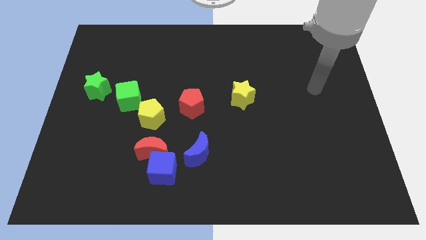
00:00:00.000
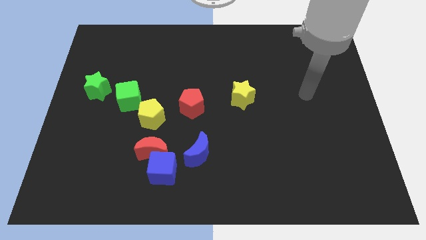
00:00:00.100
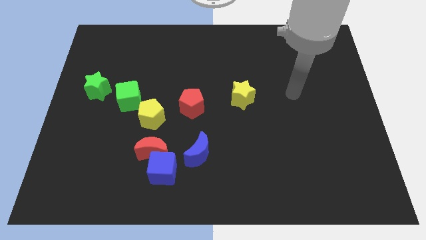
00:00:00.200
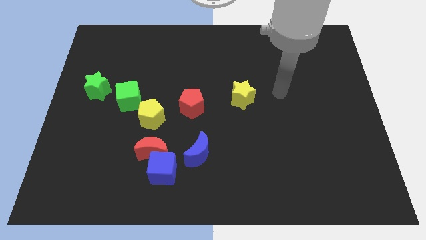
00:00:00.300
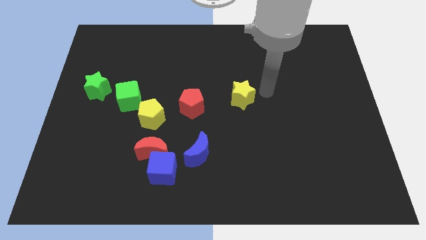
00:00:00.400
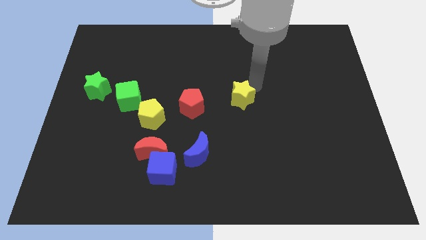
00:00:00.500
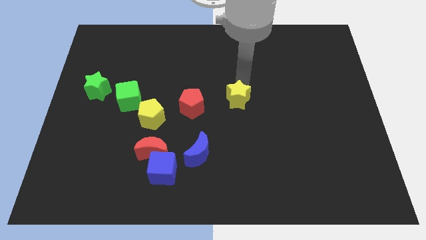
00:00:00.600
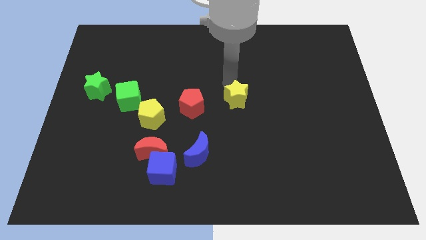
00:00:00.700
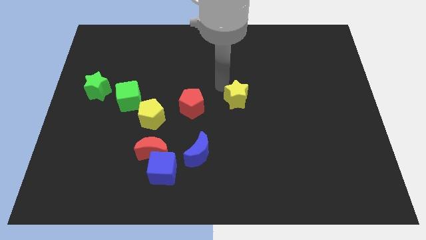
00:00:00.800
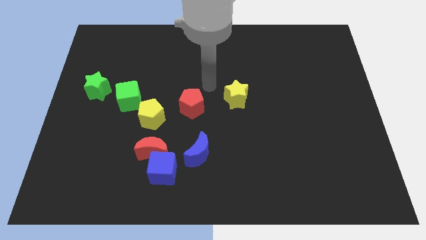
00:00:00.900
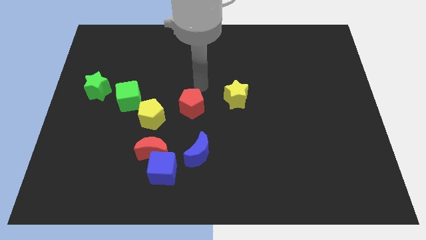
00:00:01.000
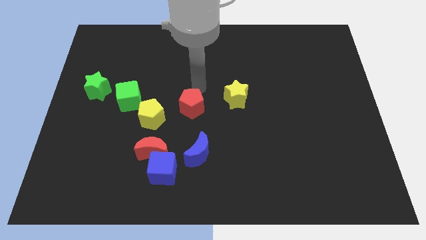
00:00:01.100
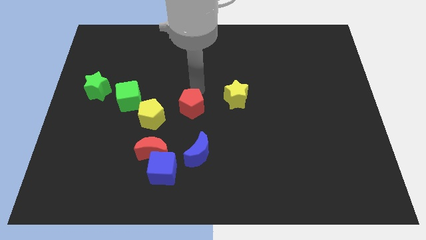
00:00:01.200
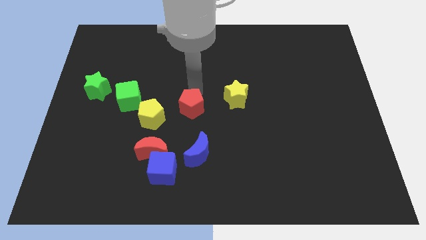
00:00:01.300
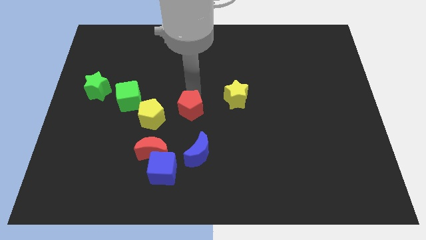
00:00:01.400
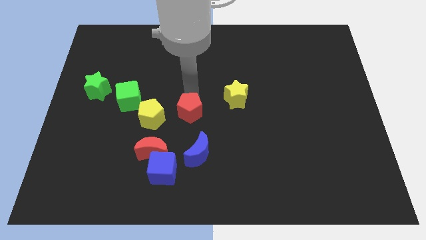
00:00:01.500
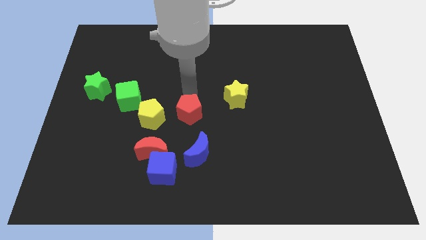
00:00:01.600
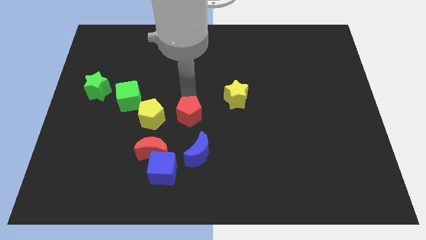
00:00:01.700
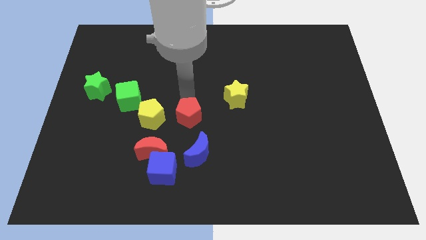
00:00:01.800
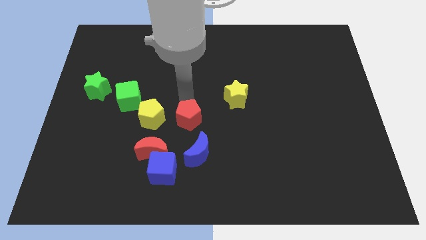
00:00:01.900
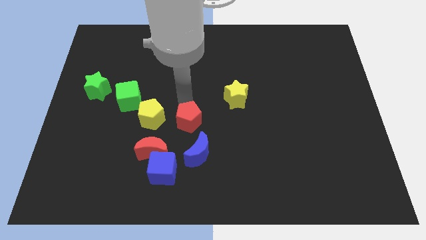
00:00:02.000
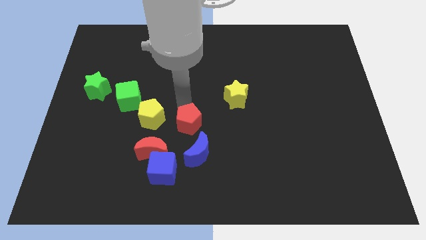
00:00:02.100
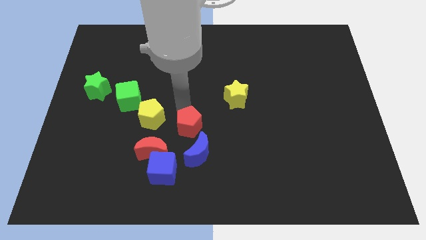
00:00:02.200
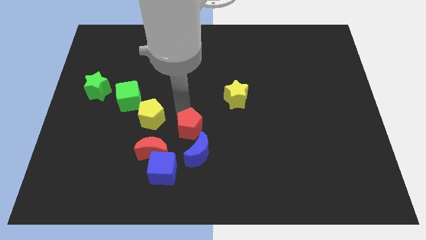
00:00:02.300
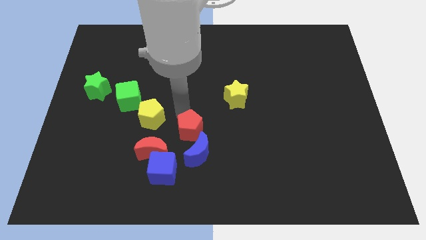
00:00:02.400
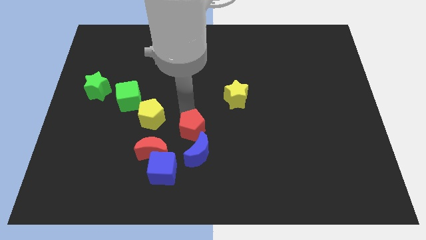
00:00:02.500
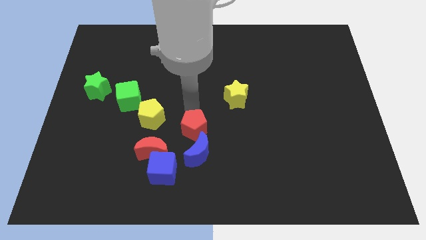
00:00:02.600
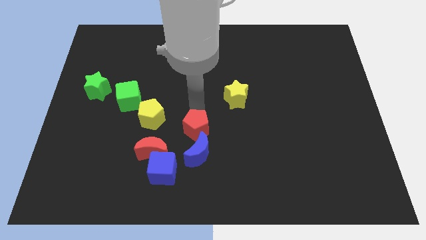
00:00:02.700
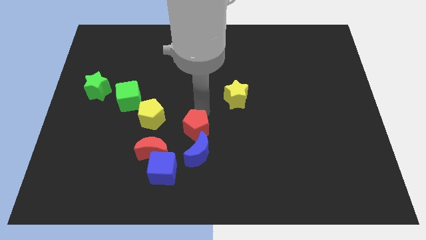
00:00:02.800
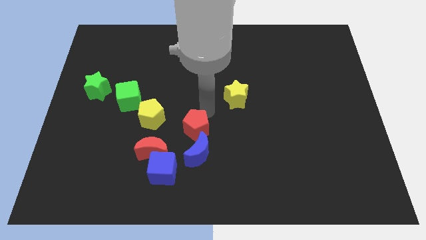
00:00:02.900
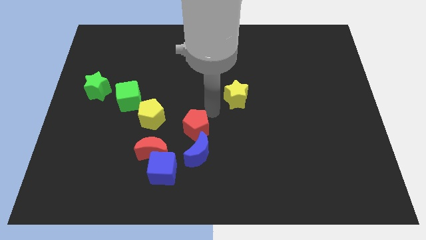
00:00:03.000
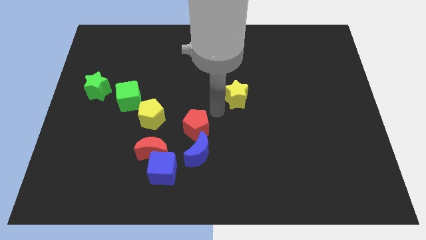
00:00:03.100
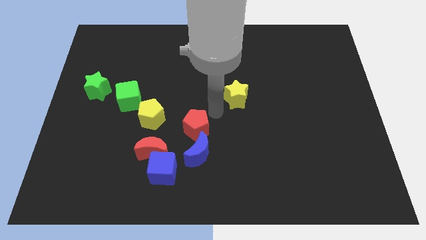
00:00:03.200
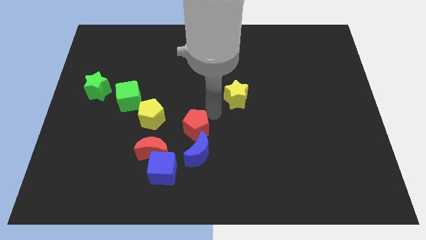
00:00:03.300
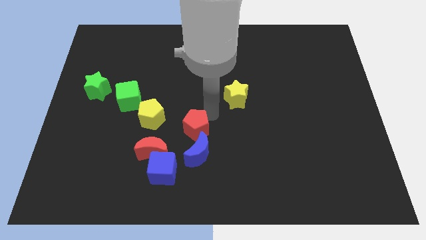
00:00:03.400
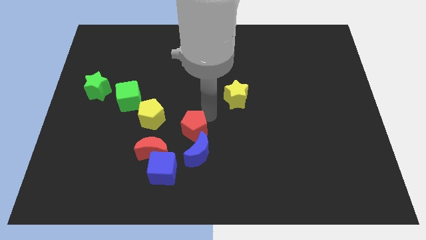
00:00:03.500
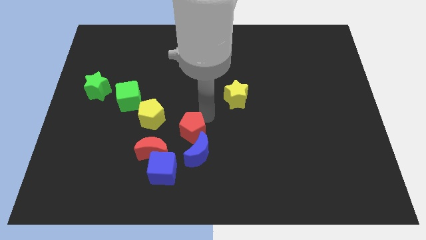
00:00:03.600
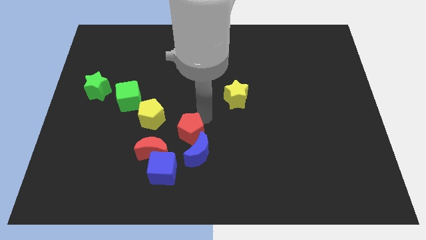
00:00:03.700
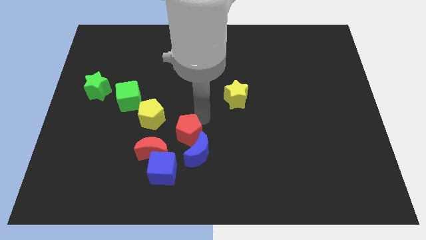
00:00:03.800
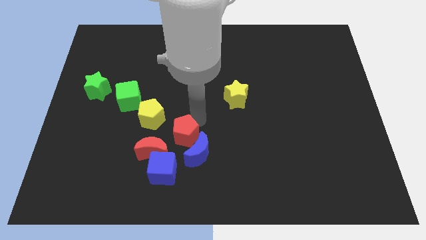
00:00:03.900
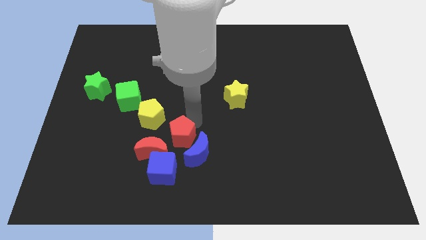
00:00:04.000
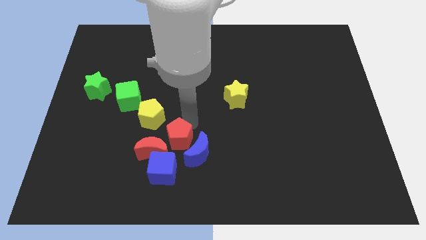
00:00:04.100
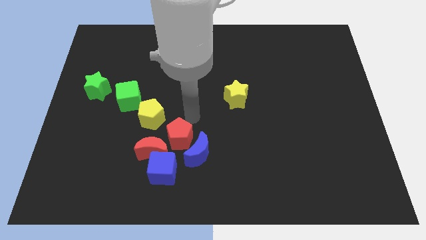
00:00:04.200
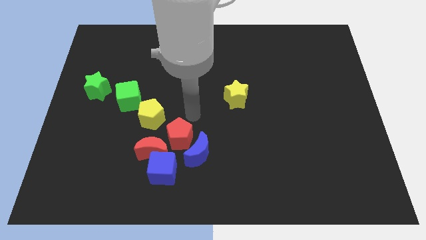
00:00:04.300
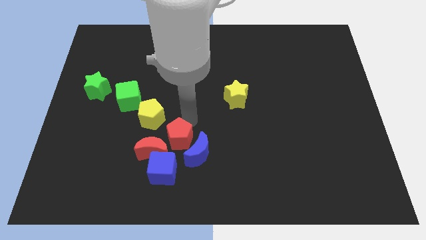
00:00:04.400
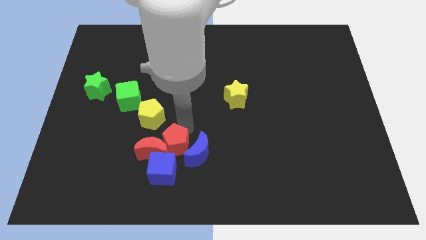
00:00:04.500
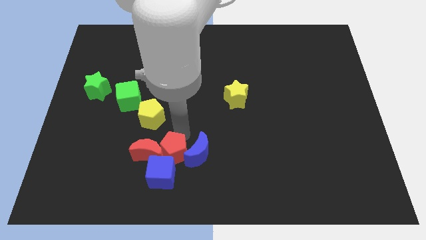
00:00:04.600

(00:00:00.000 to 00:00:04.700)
slide the red pentagon towards the blue cube

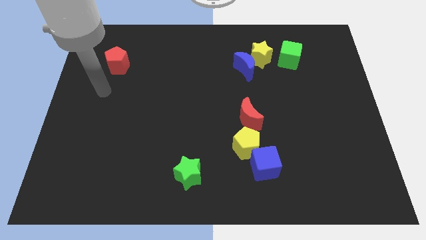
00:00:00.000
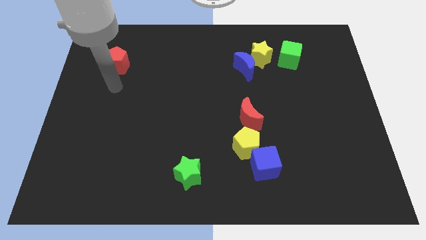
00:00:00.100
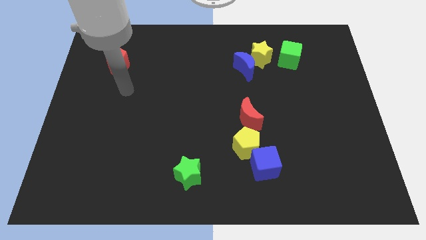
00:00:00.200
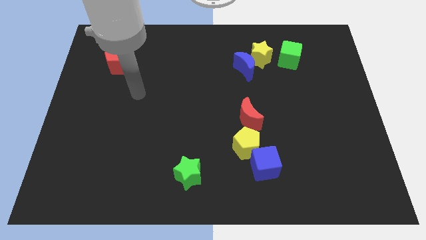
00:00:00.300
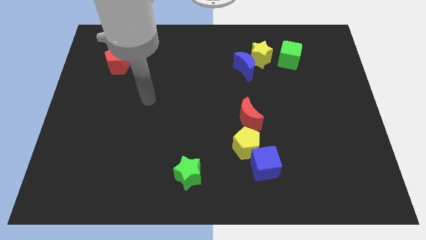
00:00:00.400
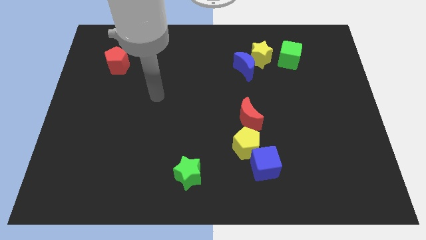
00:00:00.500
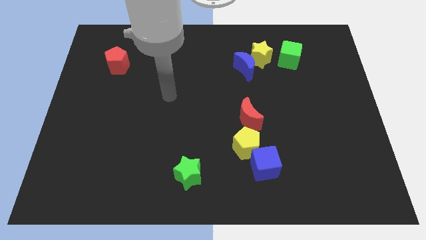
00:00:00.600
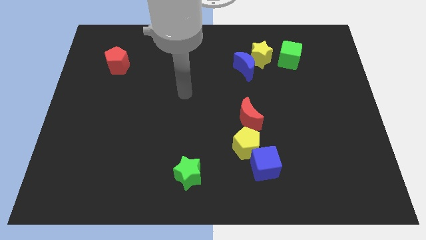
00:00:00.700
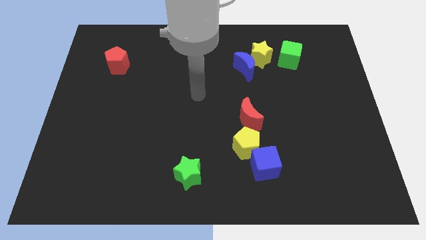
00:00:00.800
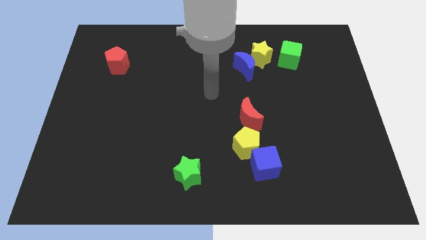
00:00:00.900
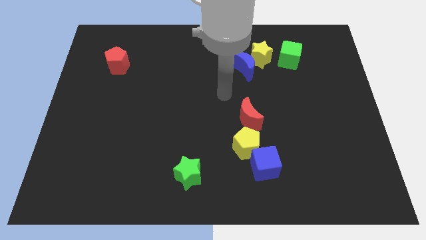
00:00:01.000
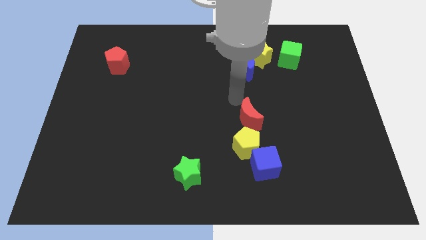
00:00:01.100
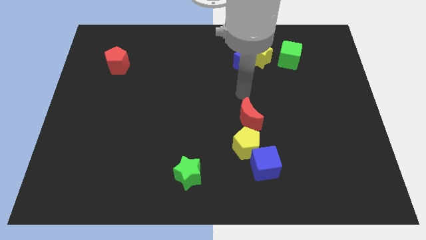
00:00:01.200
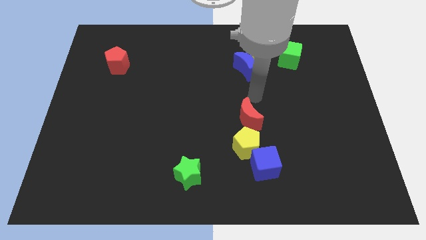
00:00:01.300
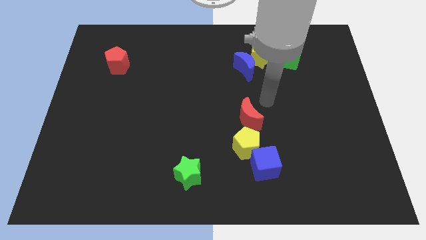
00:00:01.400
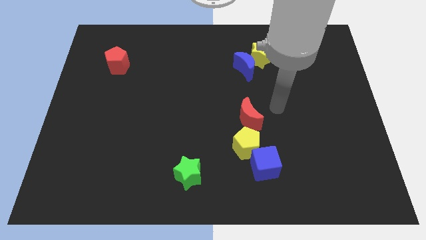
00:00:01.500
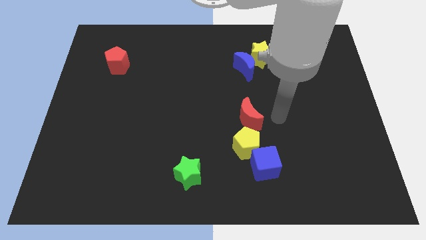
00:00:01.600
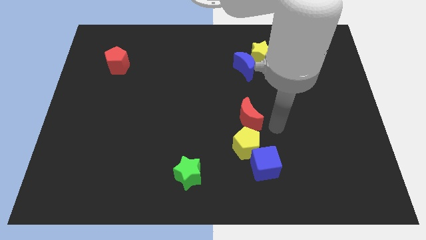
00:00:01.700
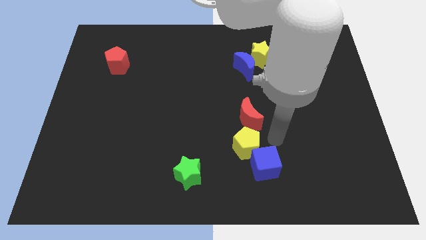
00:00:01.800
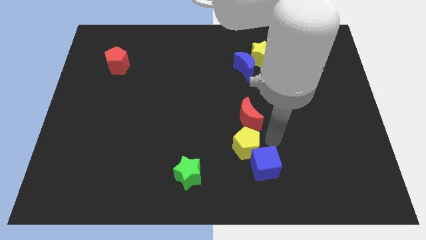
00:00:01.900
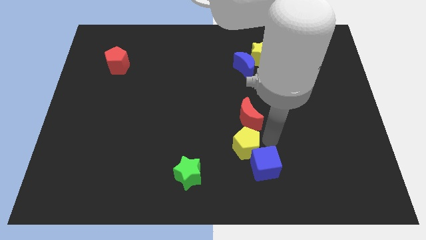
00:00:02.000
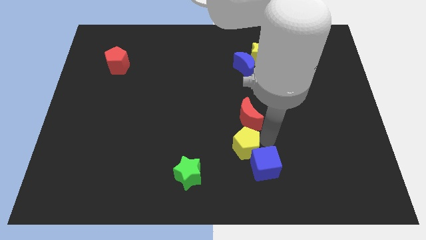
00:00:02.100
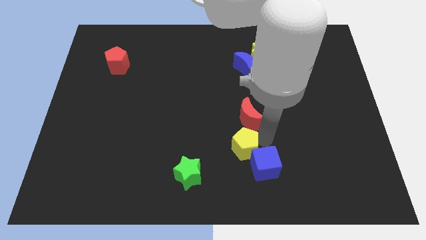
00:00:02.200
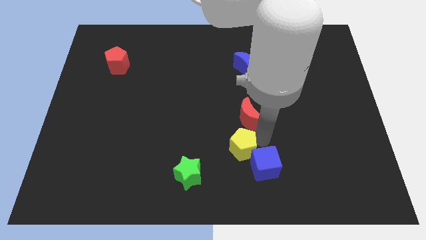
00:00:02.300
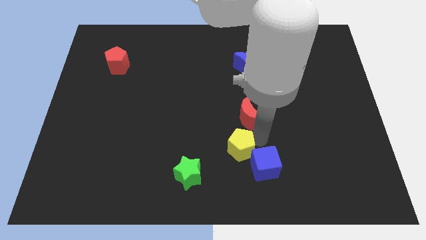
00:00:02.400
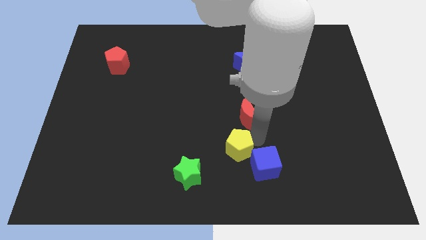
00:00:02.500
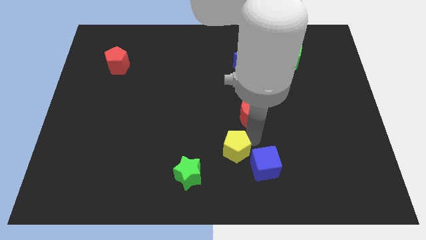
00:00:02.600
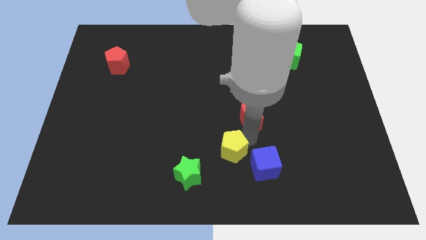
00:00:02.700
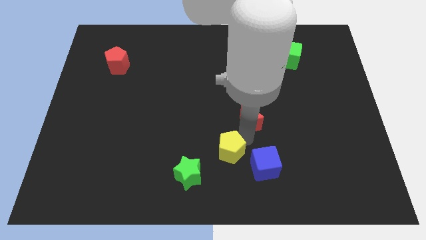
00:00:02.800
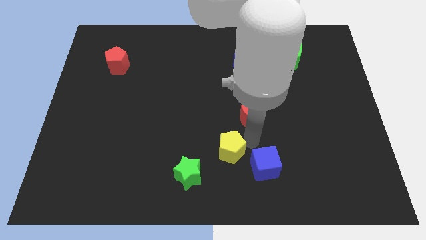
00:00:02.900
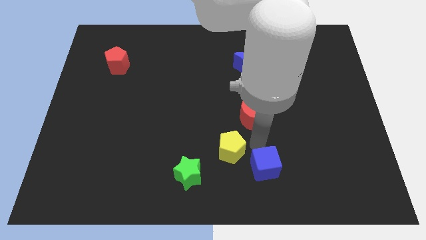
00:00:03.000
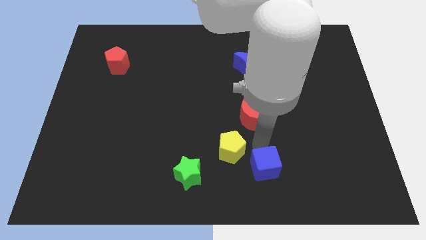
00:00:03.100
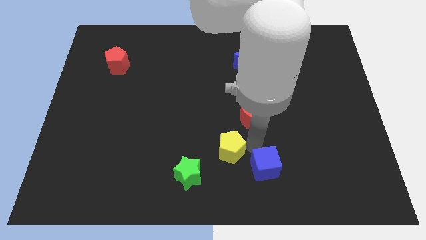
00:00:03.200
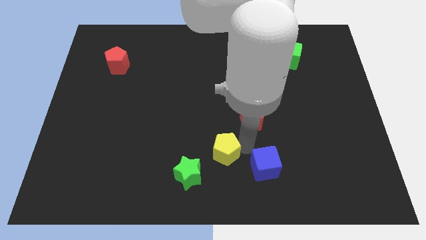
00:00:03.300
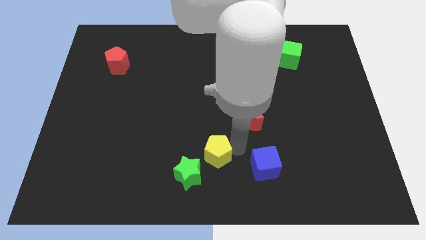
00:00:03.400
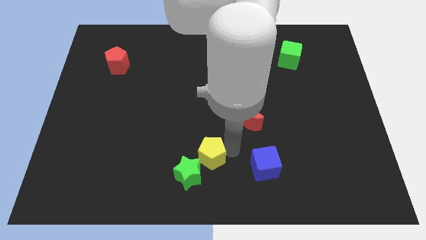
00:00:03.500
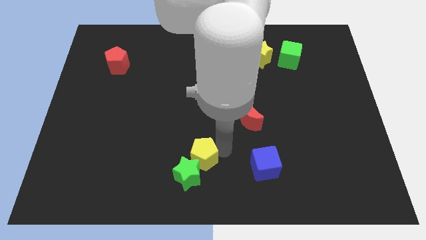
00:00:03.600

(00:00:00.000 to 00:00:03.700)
slide the yellow pentagon towards the green star
